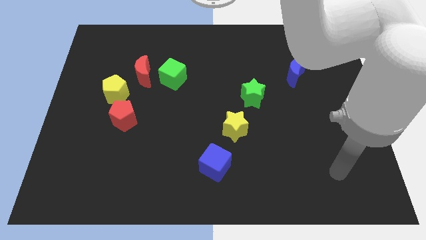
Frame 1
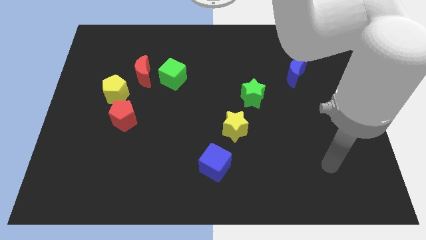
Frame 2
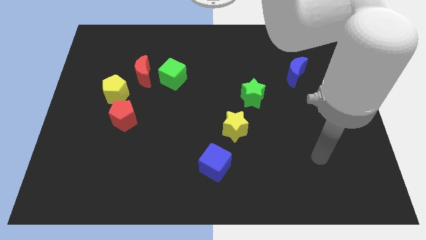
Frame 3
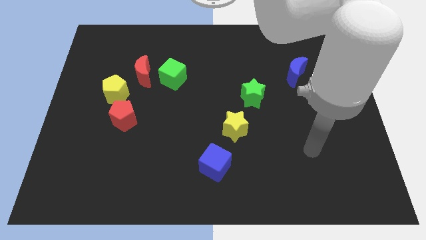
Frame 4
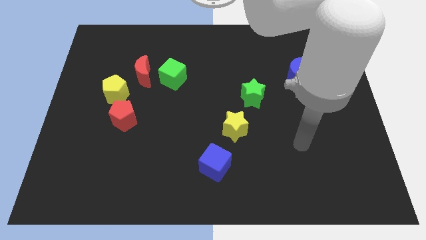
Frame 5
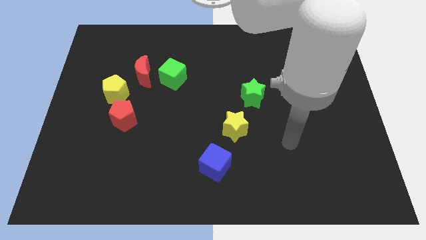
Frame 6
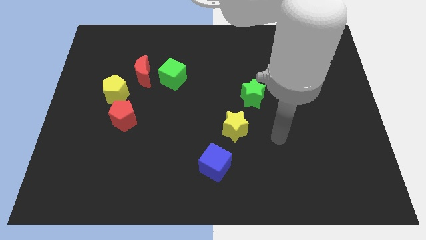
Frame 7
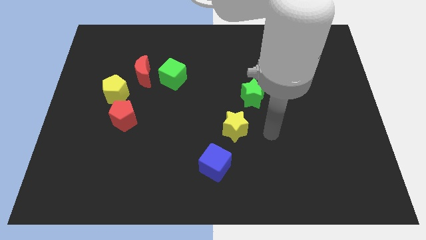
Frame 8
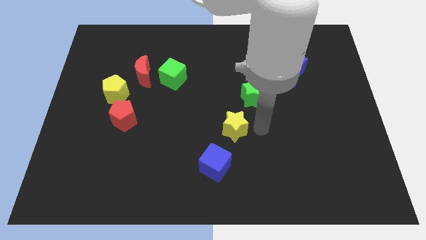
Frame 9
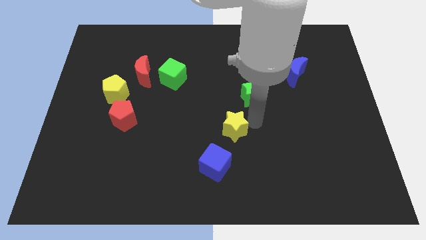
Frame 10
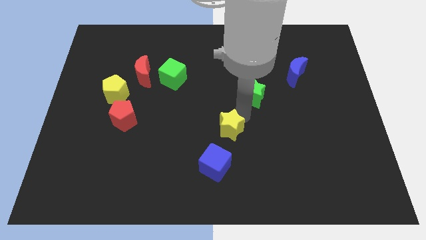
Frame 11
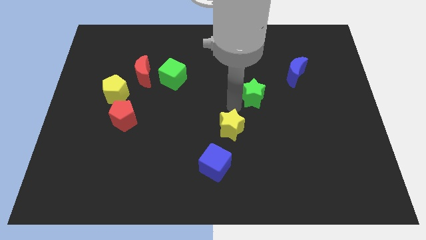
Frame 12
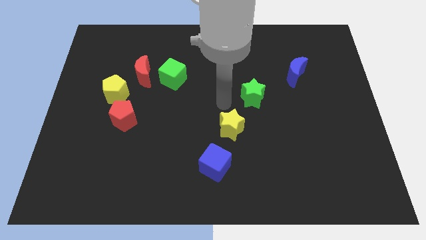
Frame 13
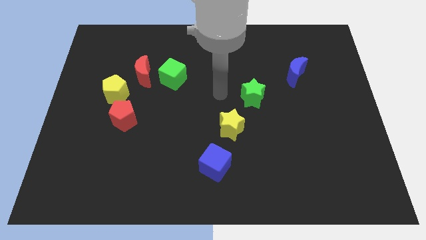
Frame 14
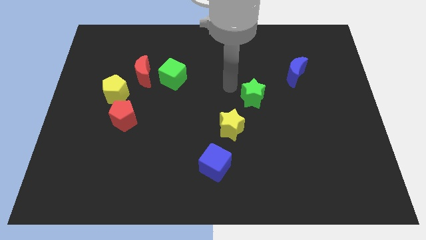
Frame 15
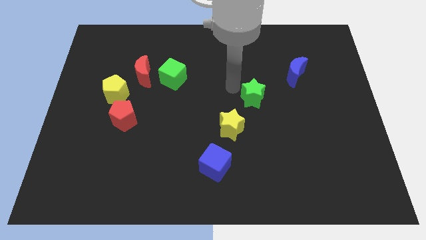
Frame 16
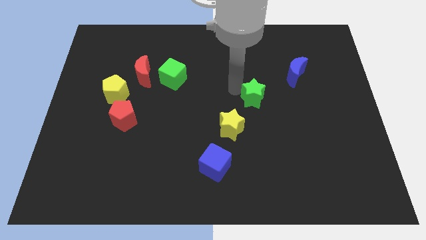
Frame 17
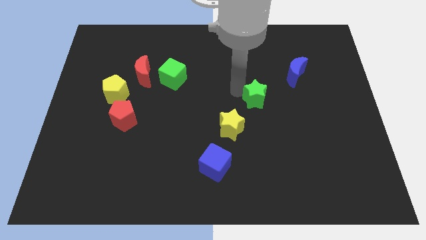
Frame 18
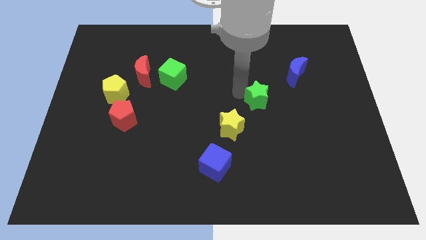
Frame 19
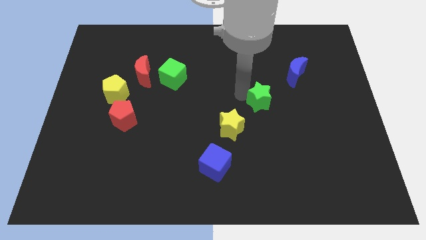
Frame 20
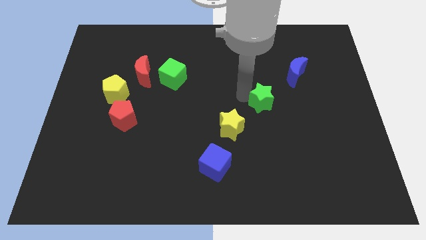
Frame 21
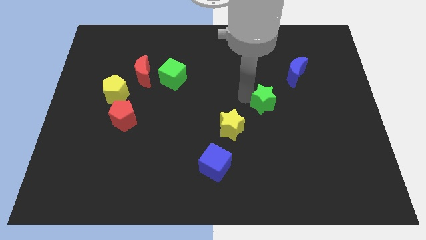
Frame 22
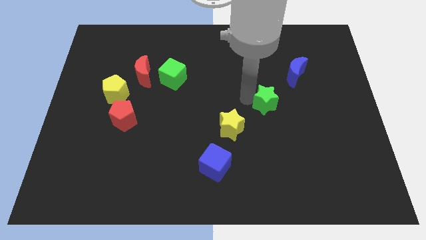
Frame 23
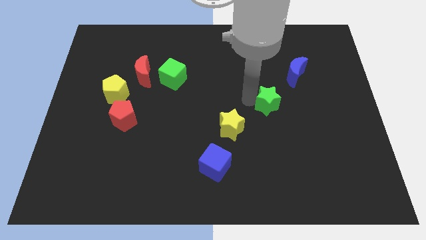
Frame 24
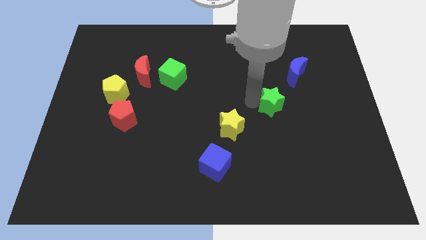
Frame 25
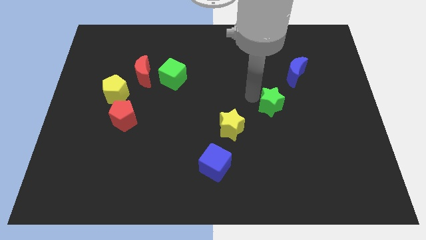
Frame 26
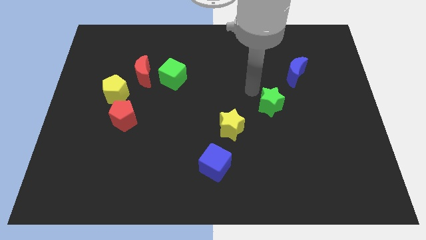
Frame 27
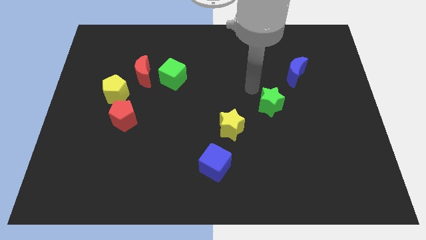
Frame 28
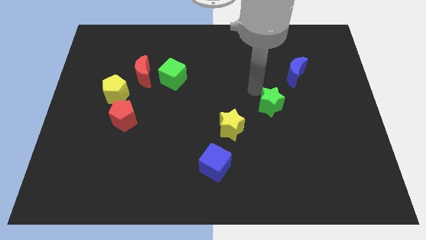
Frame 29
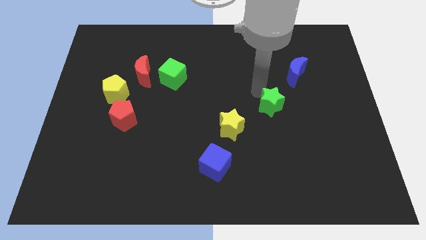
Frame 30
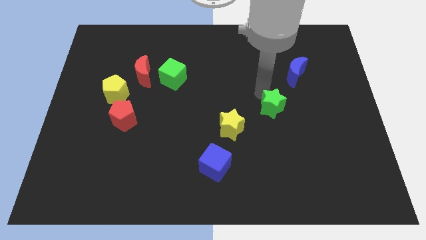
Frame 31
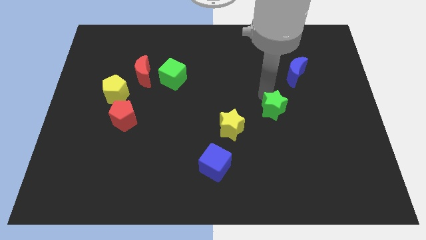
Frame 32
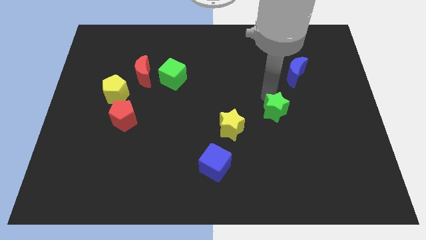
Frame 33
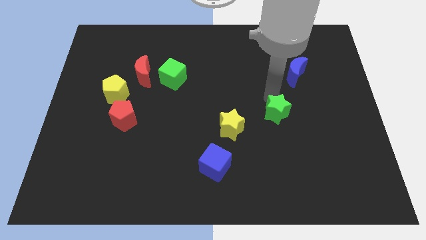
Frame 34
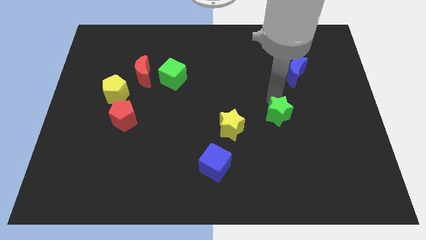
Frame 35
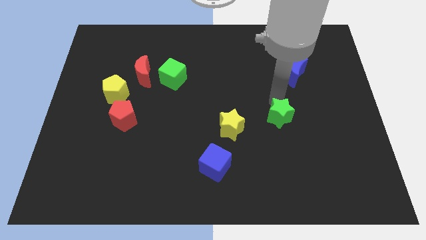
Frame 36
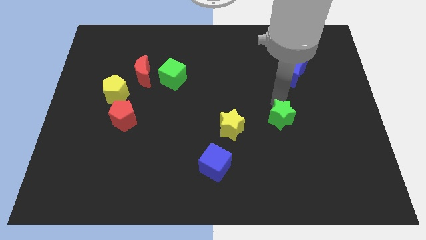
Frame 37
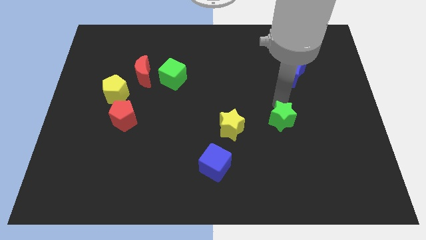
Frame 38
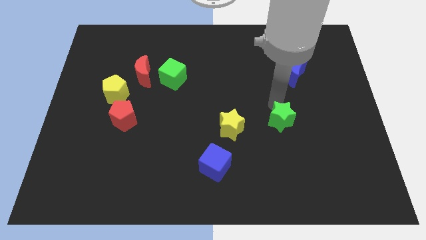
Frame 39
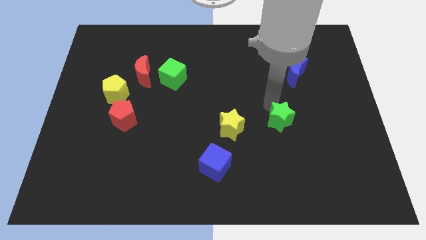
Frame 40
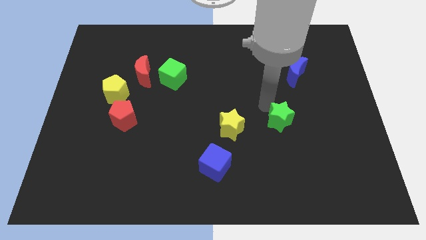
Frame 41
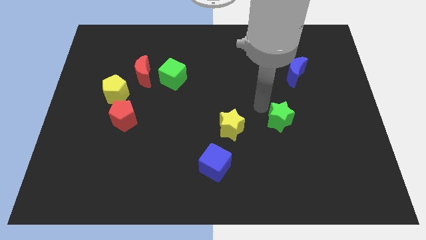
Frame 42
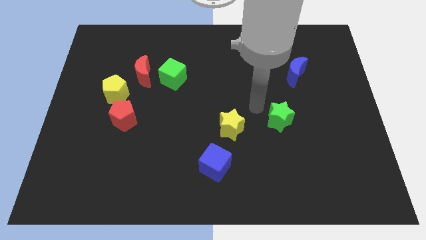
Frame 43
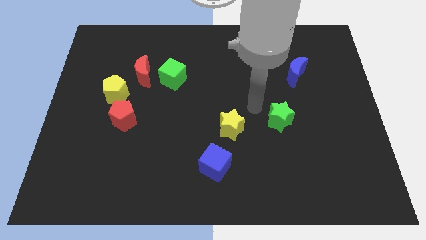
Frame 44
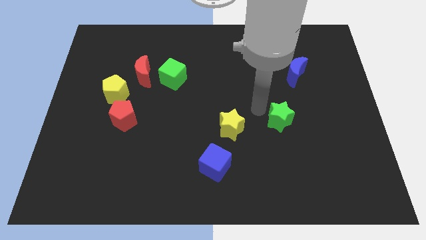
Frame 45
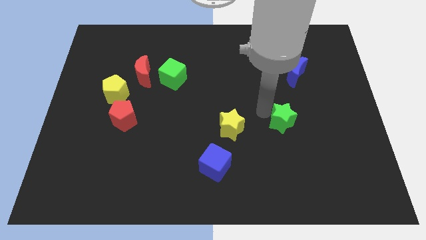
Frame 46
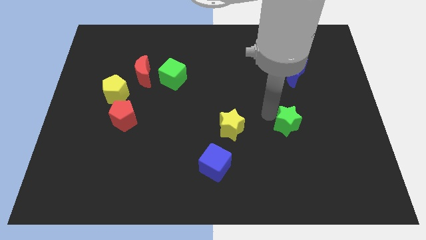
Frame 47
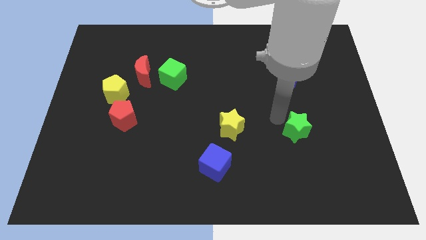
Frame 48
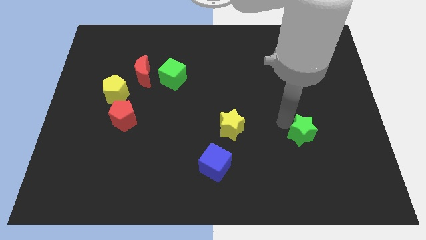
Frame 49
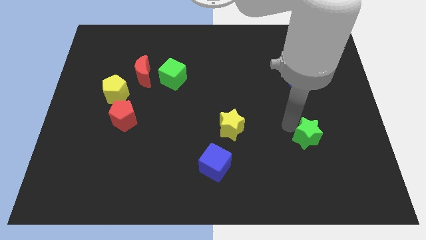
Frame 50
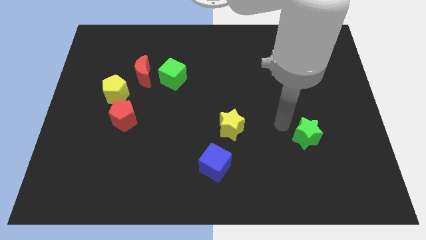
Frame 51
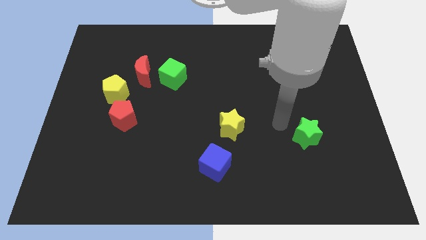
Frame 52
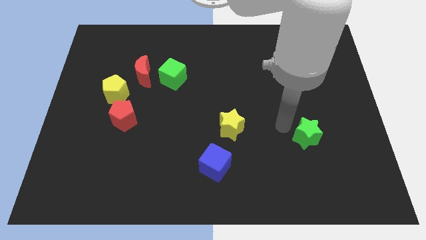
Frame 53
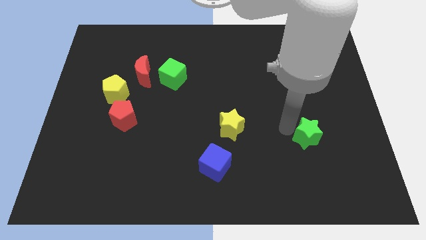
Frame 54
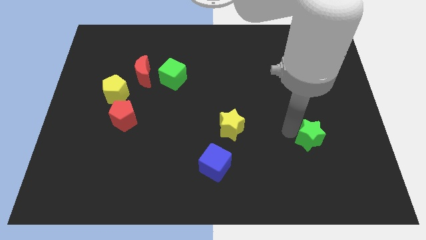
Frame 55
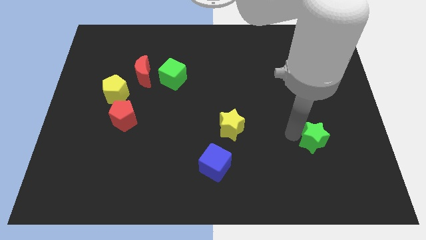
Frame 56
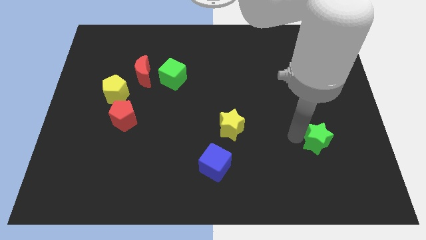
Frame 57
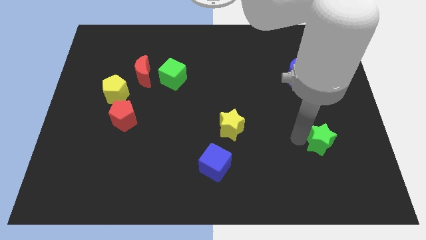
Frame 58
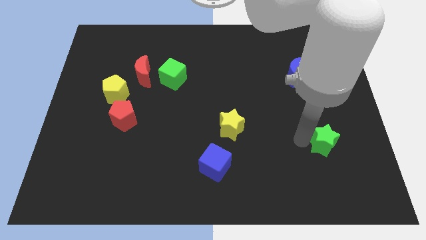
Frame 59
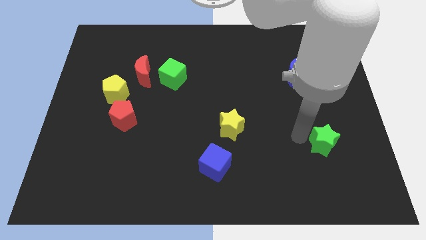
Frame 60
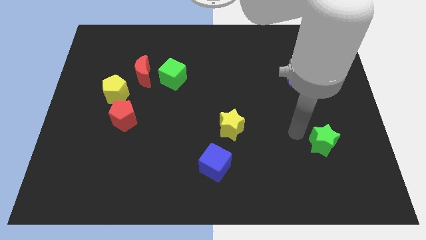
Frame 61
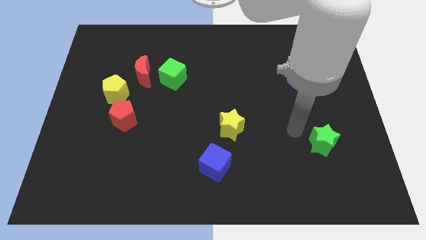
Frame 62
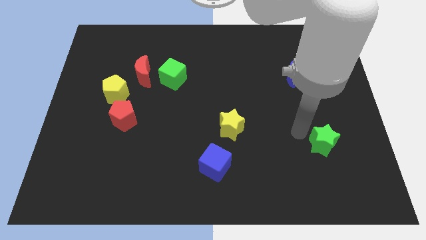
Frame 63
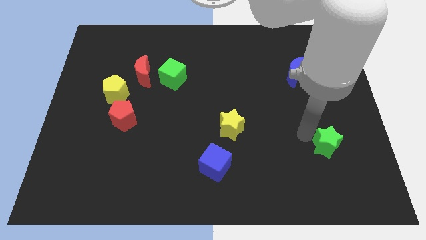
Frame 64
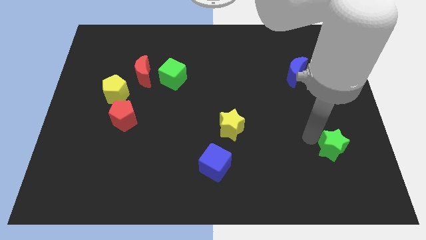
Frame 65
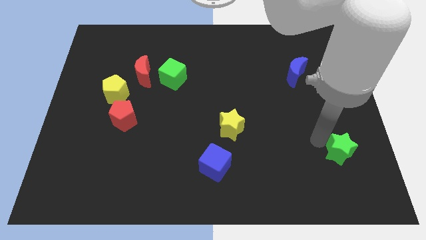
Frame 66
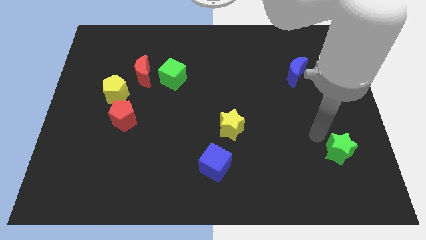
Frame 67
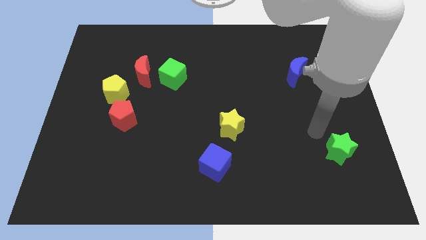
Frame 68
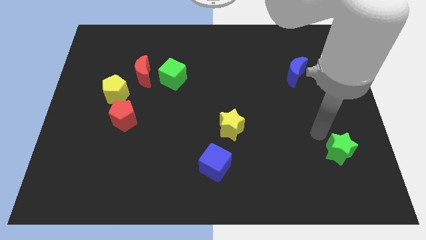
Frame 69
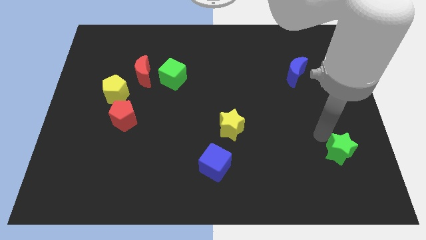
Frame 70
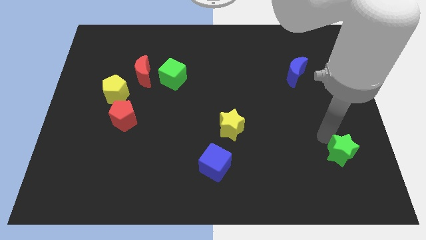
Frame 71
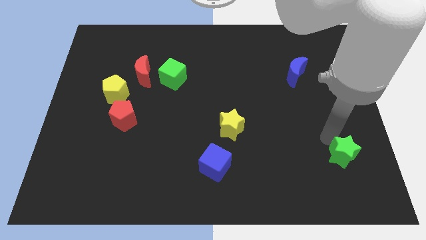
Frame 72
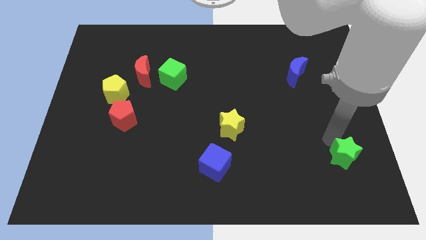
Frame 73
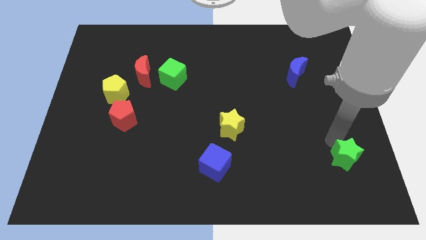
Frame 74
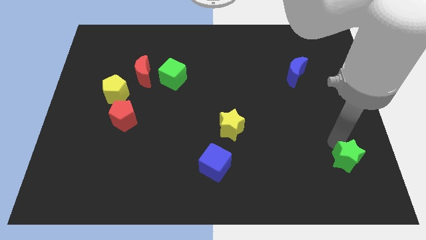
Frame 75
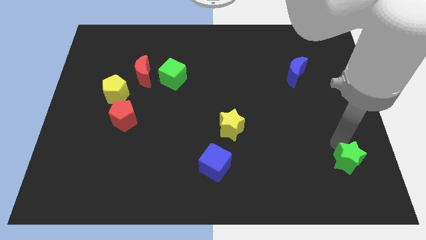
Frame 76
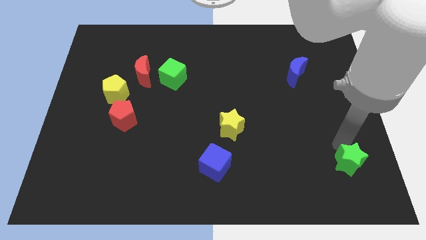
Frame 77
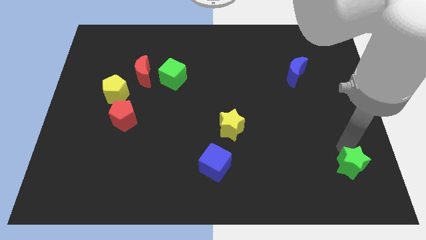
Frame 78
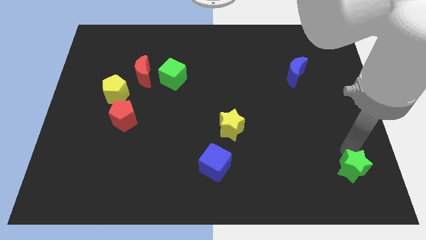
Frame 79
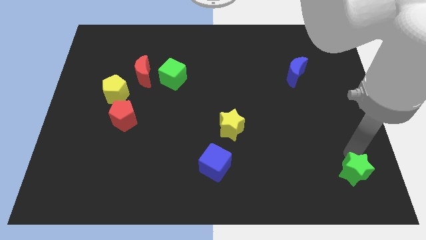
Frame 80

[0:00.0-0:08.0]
put the green star to the bottom right
